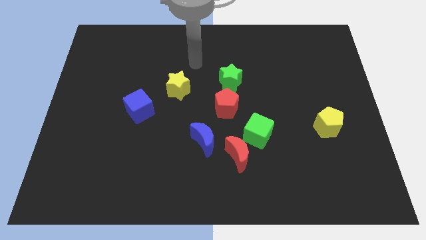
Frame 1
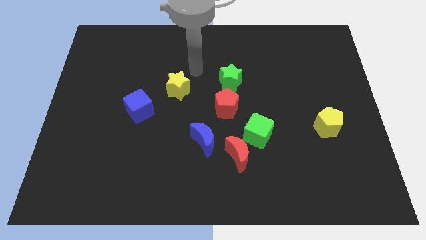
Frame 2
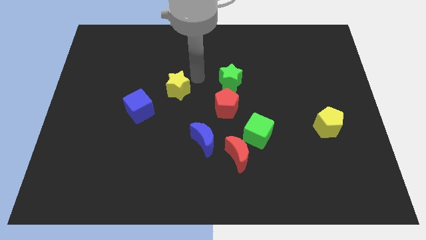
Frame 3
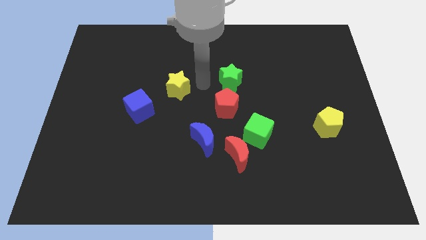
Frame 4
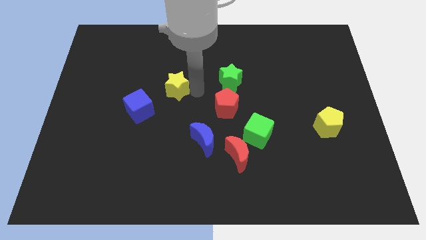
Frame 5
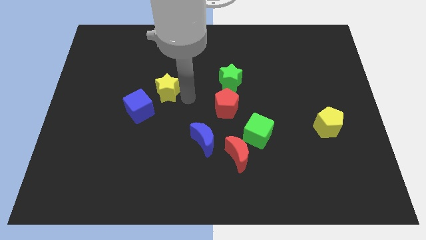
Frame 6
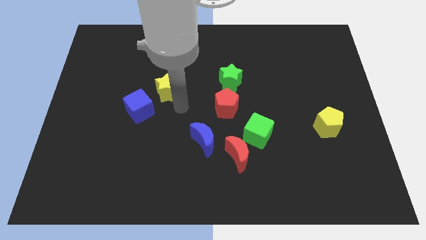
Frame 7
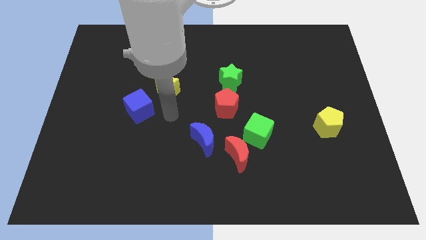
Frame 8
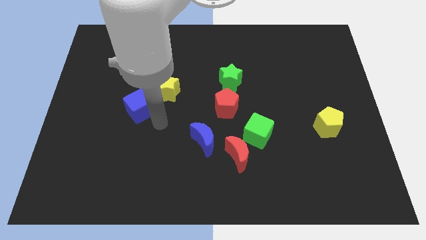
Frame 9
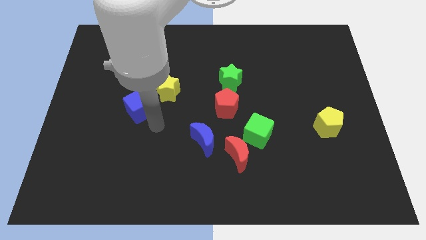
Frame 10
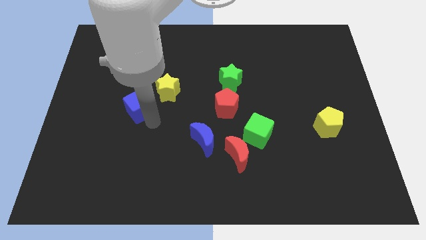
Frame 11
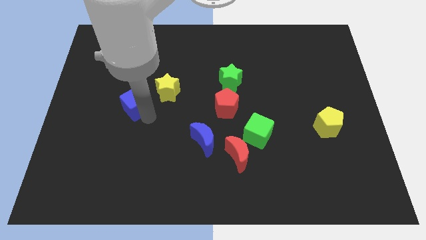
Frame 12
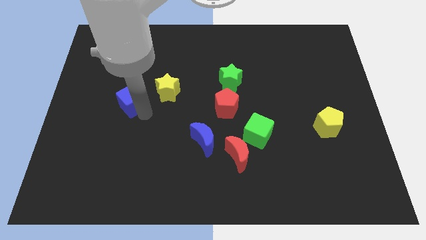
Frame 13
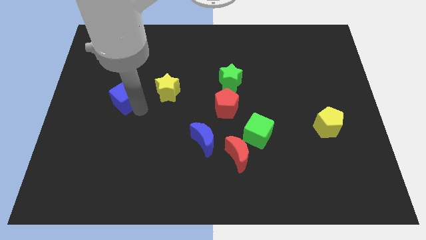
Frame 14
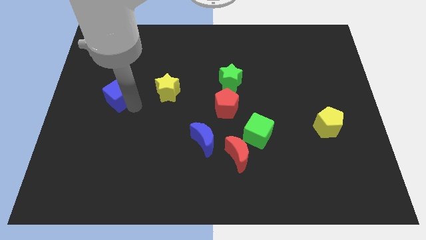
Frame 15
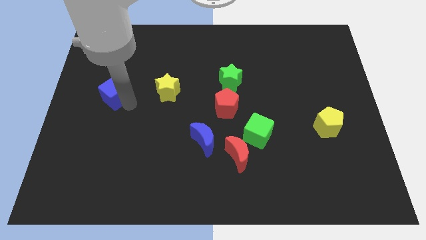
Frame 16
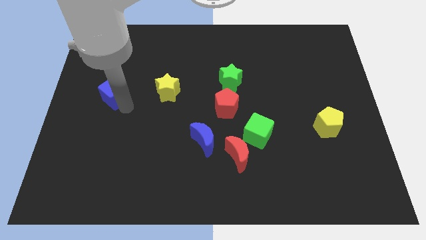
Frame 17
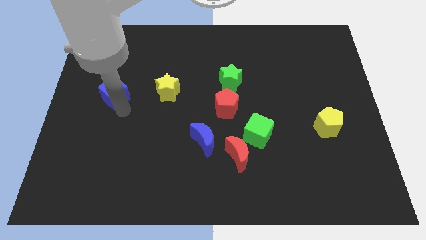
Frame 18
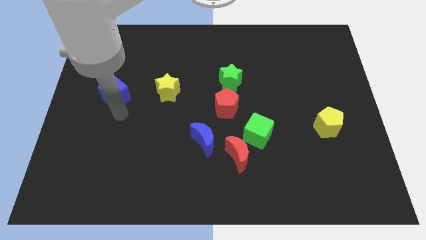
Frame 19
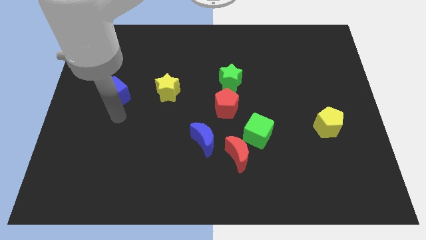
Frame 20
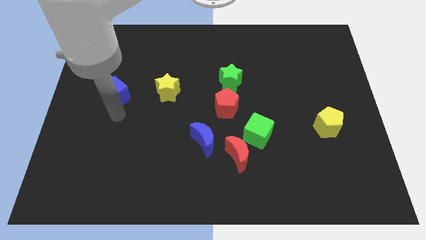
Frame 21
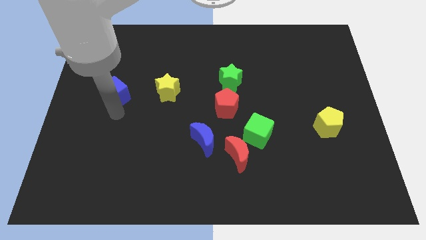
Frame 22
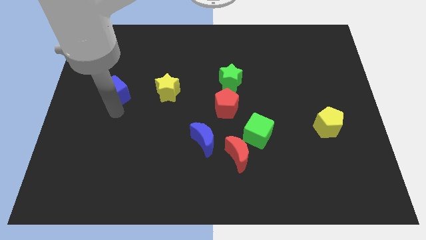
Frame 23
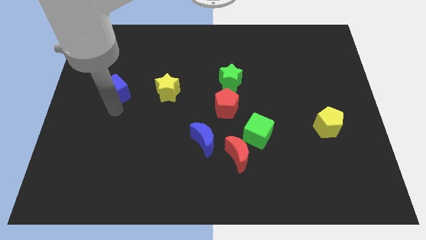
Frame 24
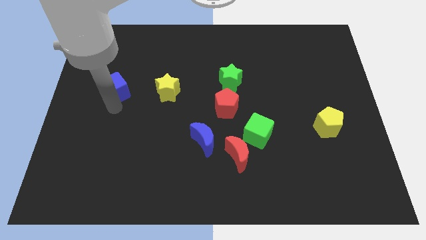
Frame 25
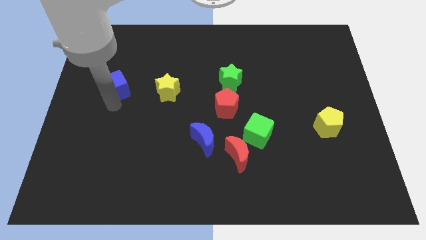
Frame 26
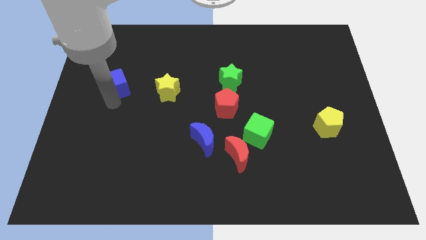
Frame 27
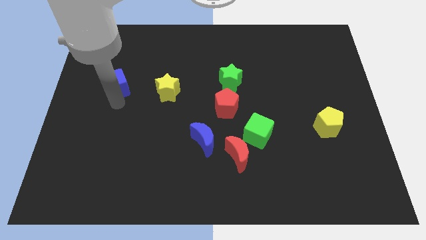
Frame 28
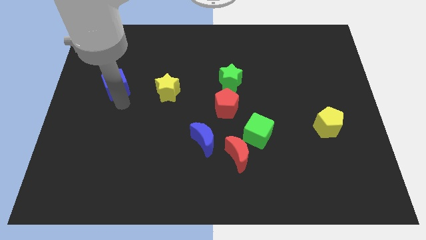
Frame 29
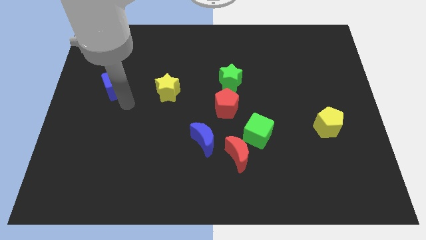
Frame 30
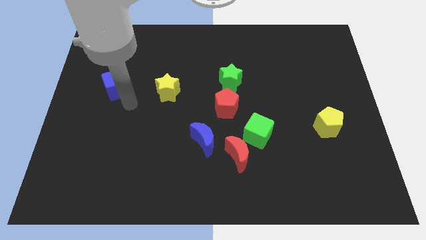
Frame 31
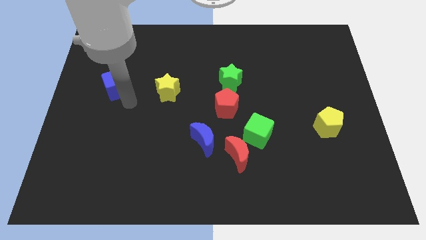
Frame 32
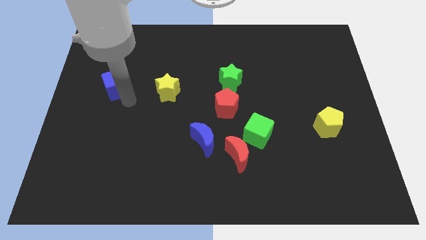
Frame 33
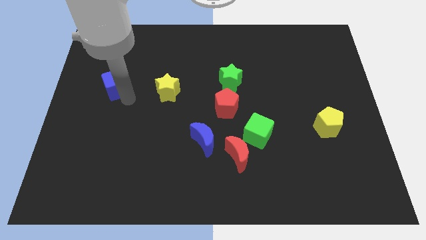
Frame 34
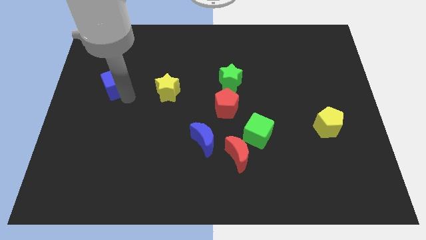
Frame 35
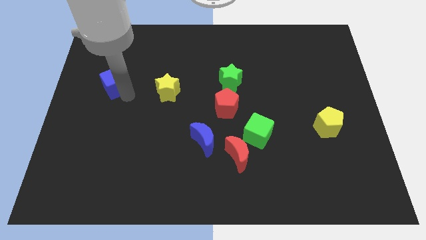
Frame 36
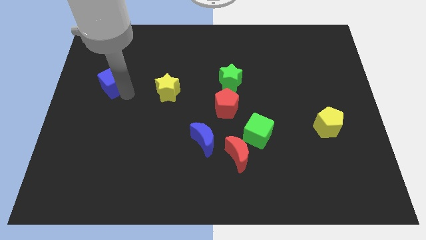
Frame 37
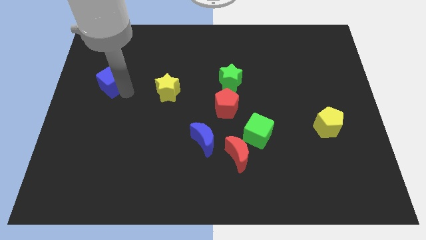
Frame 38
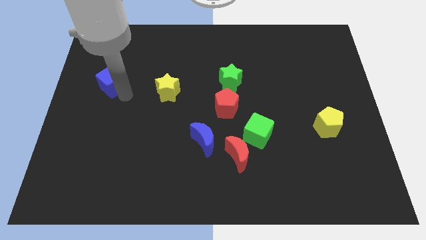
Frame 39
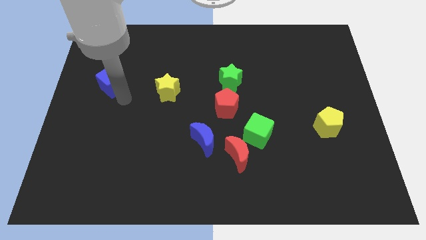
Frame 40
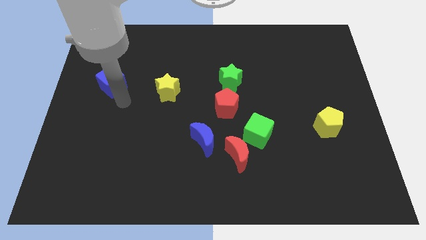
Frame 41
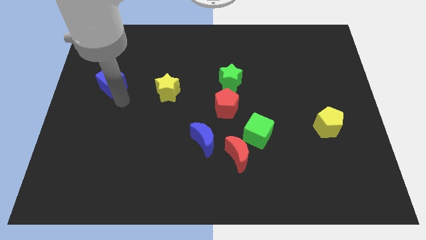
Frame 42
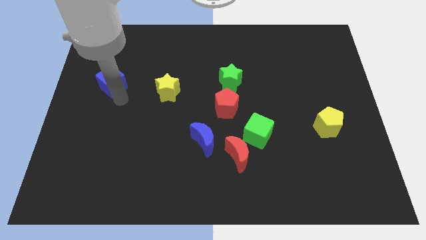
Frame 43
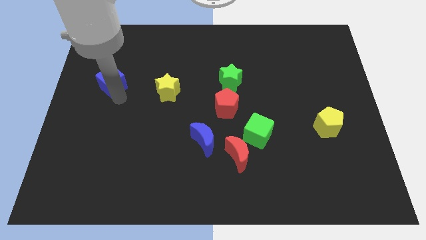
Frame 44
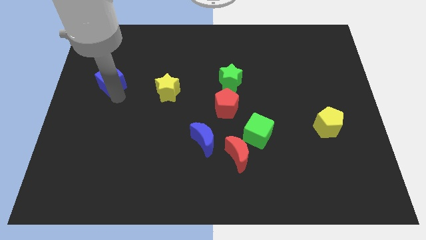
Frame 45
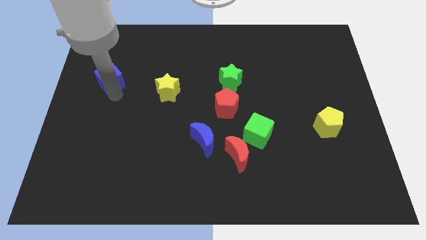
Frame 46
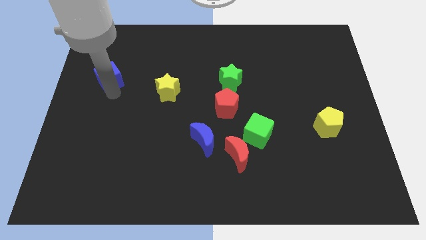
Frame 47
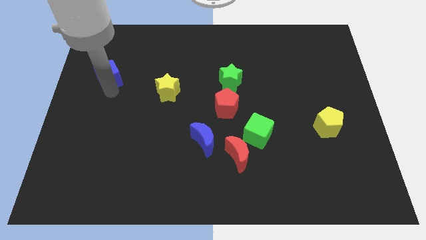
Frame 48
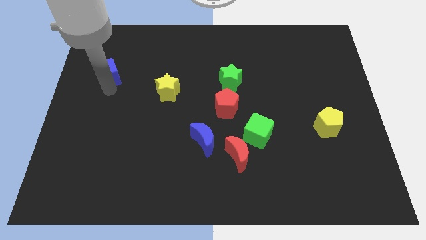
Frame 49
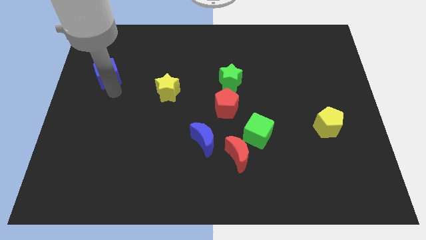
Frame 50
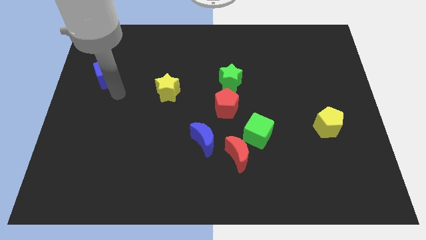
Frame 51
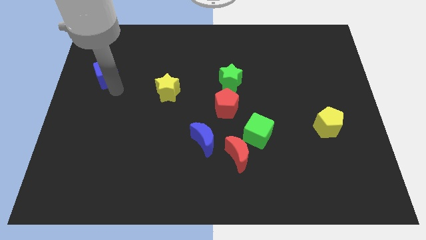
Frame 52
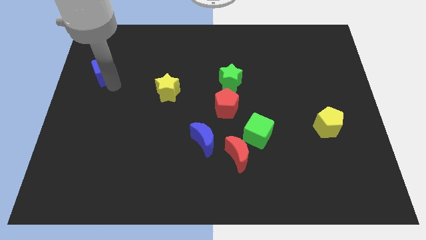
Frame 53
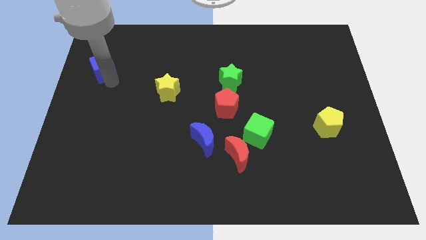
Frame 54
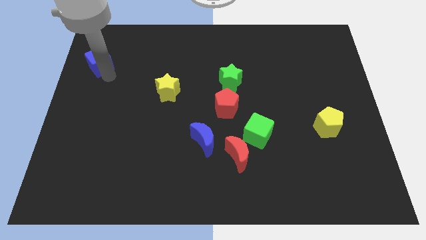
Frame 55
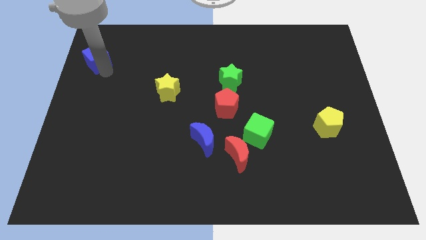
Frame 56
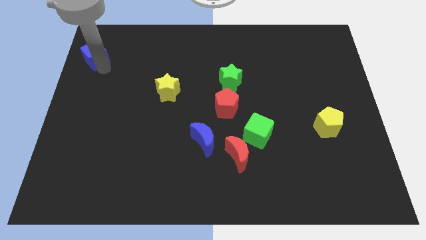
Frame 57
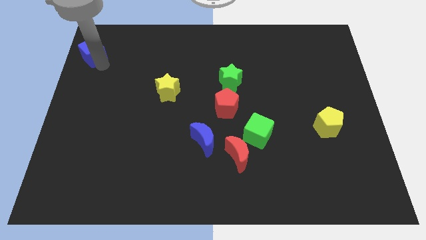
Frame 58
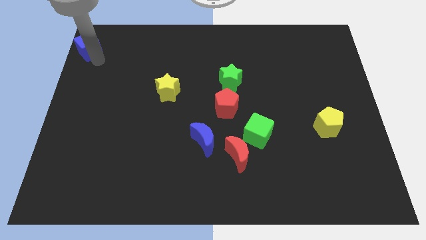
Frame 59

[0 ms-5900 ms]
push the blue cube to the top left of the board

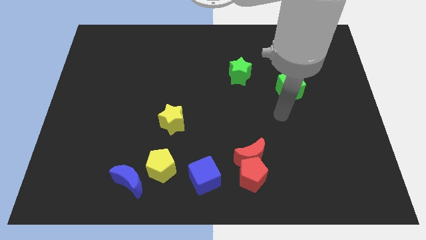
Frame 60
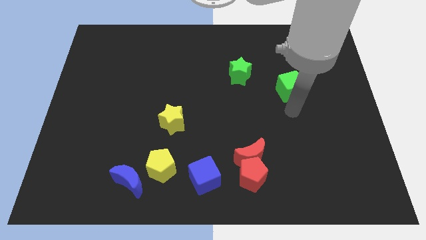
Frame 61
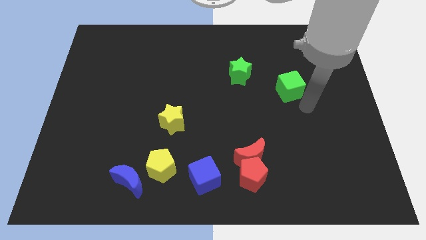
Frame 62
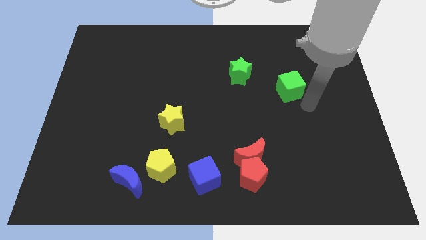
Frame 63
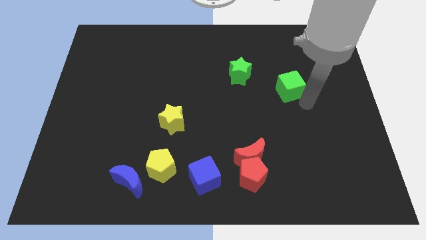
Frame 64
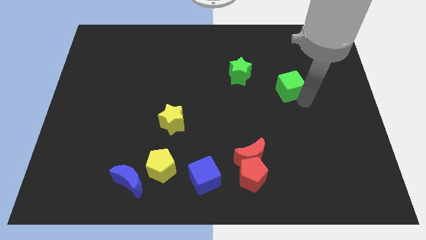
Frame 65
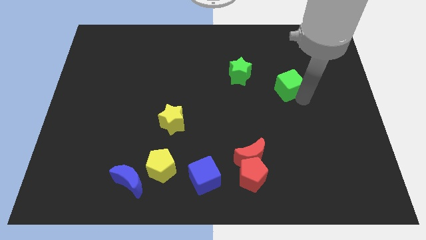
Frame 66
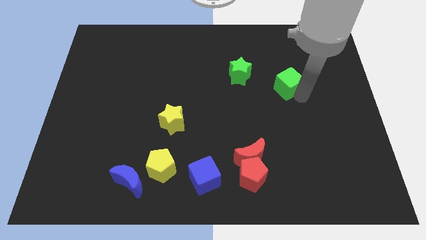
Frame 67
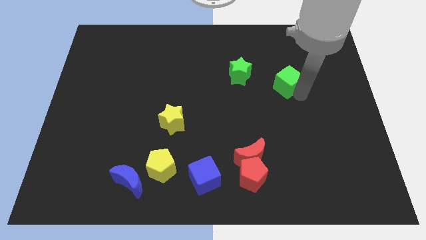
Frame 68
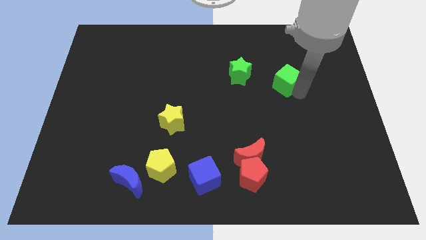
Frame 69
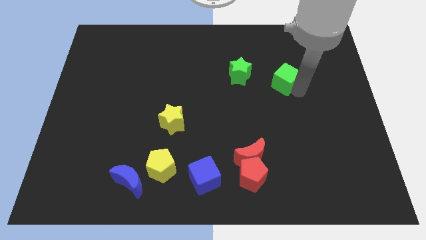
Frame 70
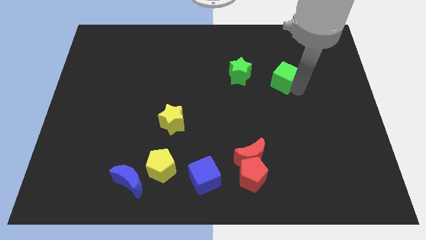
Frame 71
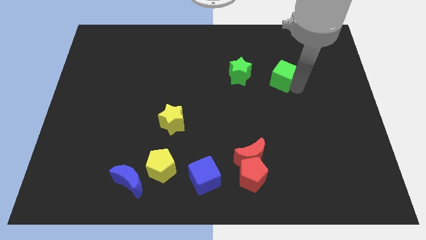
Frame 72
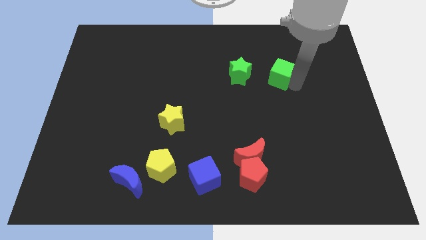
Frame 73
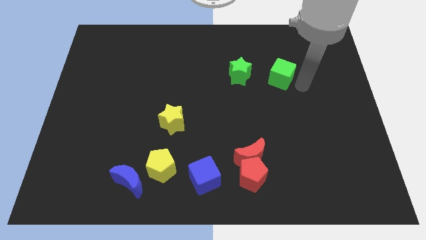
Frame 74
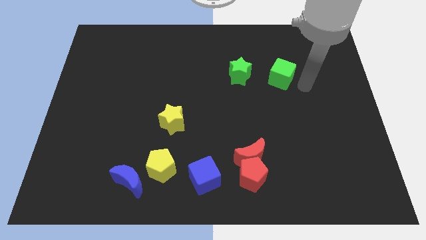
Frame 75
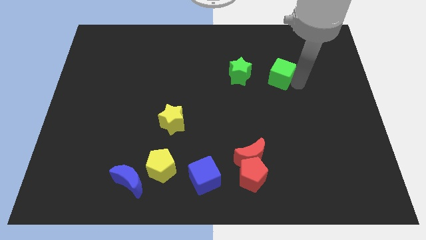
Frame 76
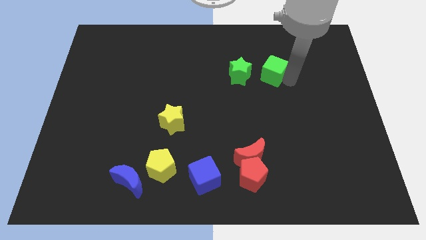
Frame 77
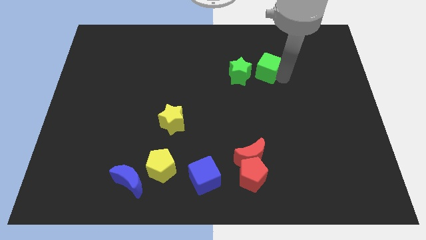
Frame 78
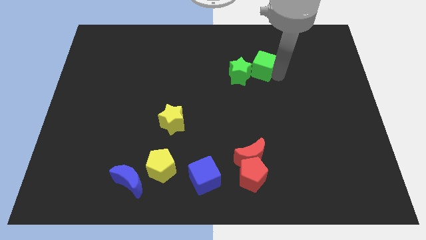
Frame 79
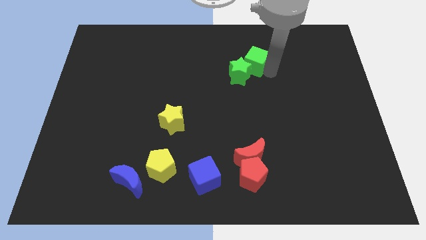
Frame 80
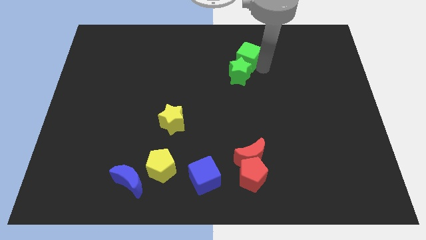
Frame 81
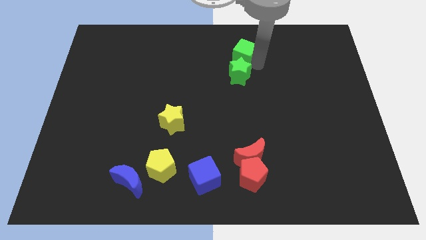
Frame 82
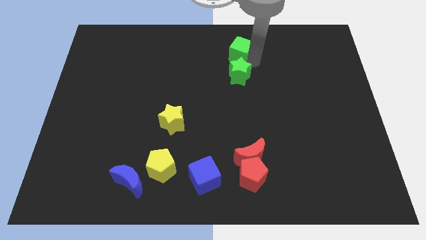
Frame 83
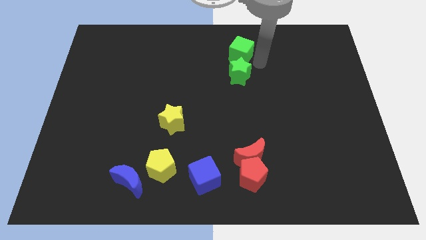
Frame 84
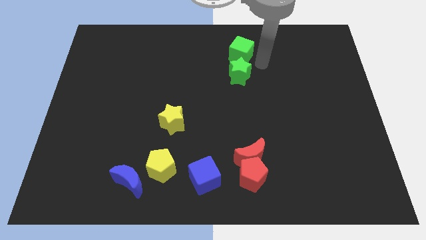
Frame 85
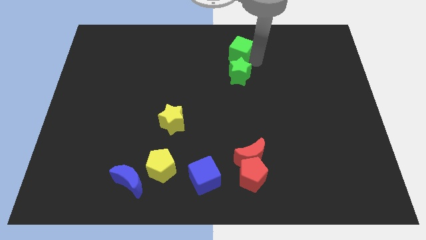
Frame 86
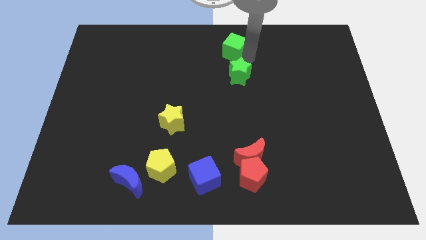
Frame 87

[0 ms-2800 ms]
push the green cube to the towards your base
